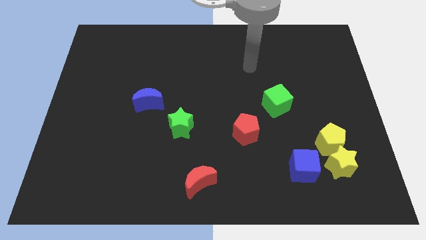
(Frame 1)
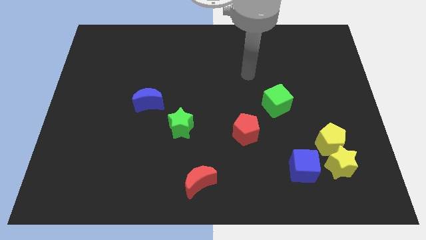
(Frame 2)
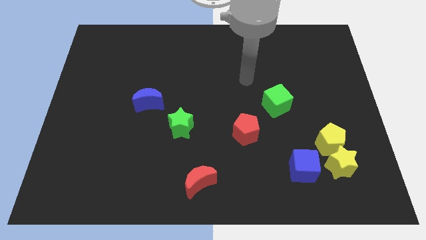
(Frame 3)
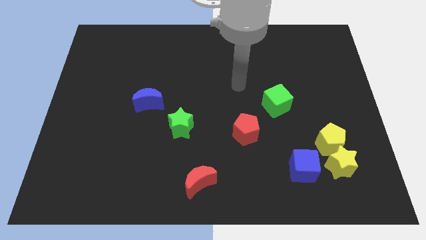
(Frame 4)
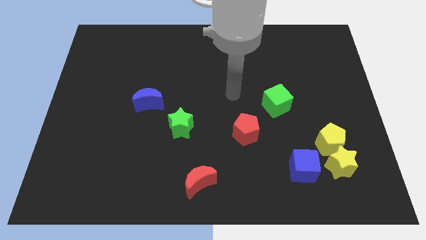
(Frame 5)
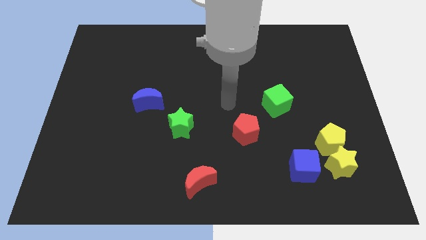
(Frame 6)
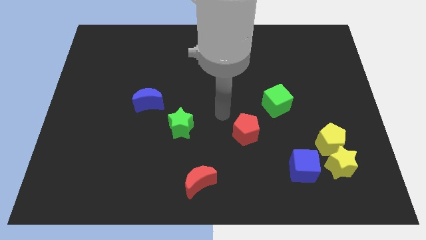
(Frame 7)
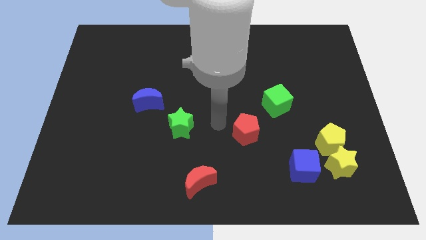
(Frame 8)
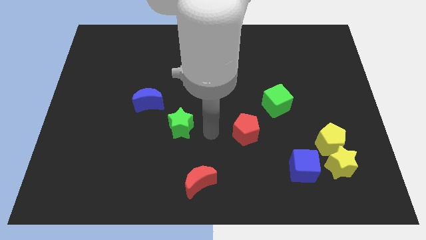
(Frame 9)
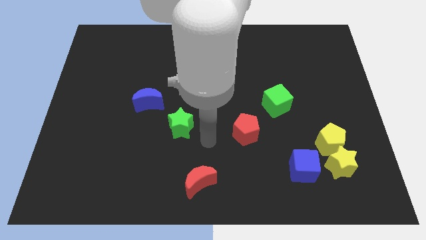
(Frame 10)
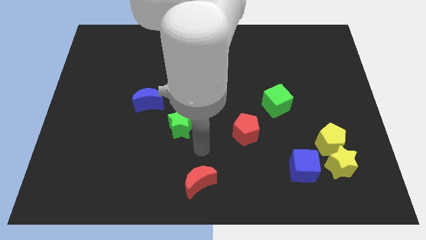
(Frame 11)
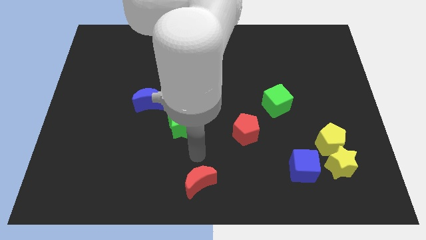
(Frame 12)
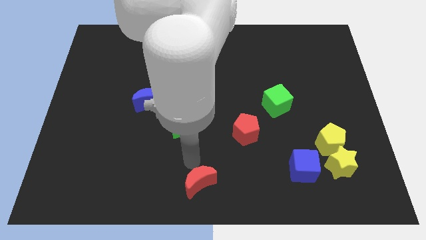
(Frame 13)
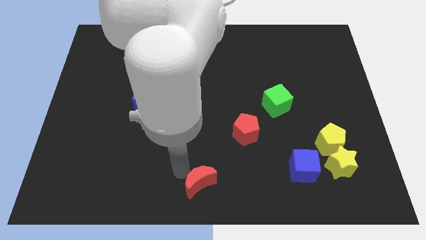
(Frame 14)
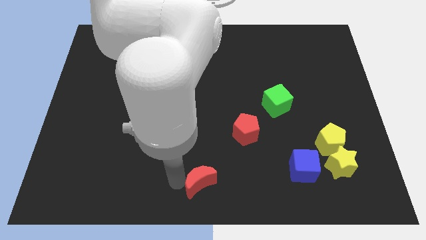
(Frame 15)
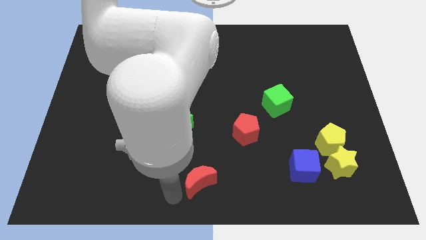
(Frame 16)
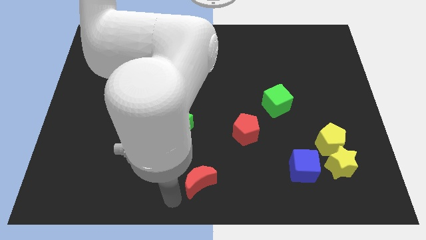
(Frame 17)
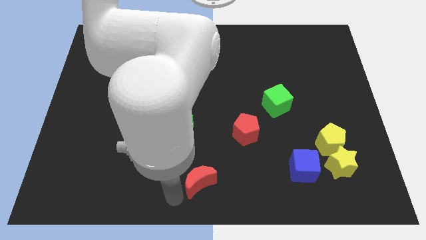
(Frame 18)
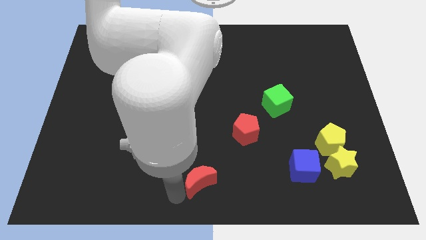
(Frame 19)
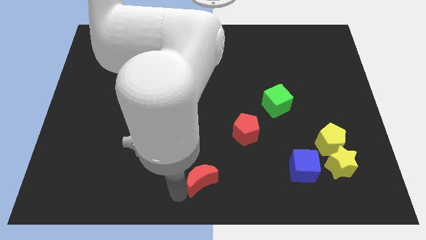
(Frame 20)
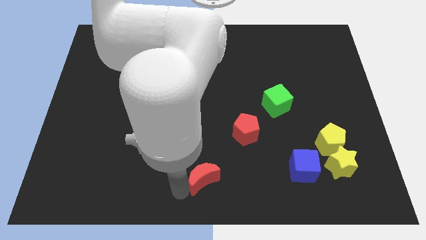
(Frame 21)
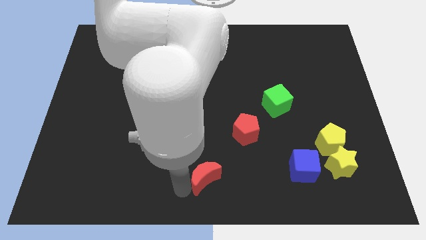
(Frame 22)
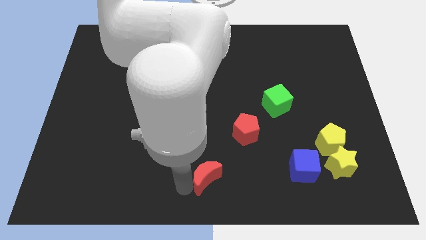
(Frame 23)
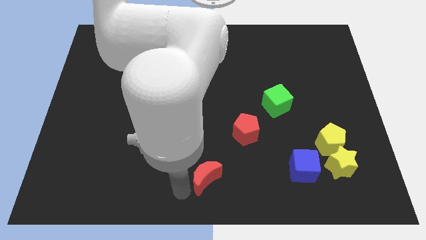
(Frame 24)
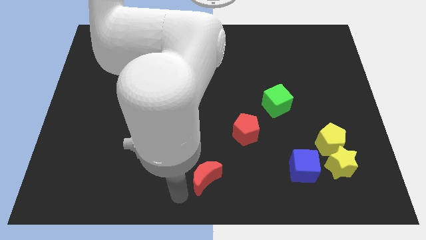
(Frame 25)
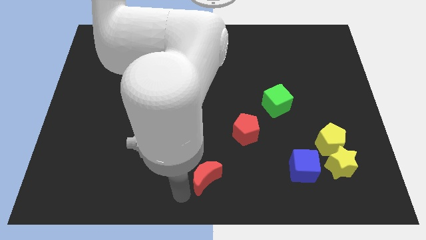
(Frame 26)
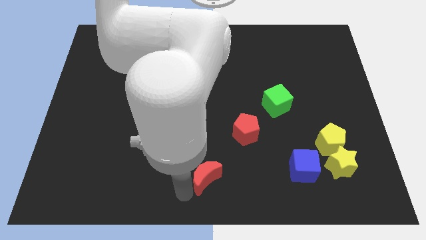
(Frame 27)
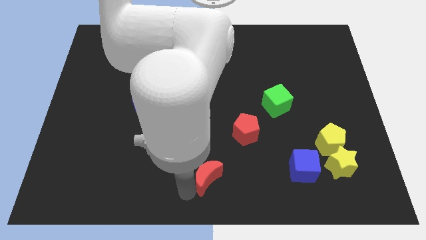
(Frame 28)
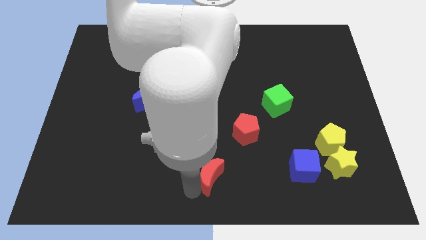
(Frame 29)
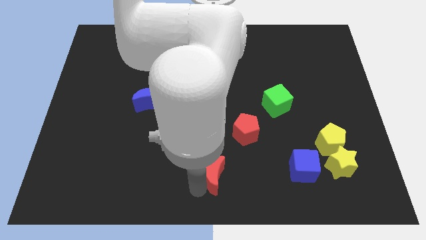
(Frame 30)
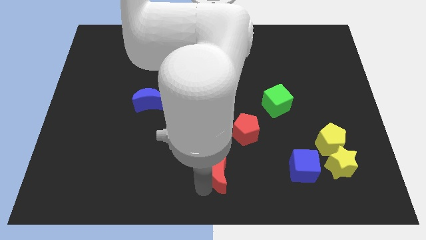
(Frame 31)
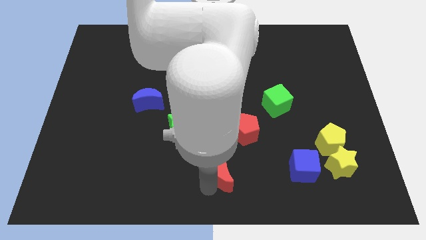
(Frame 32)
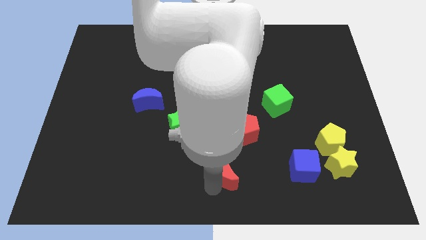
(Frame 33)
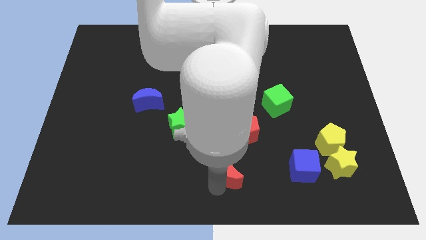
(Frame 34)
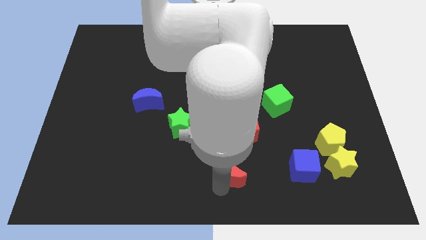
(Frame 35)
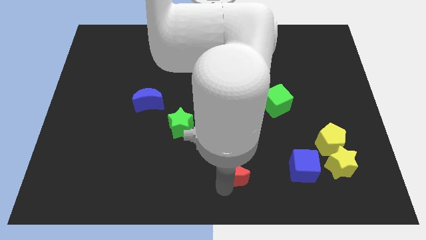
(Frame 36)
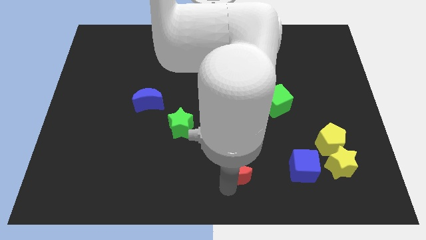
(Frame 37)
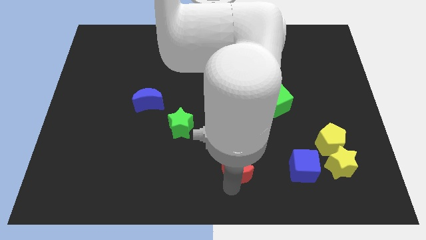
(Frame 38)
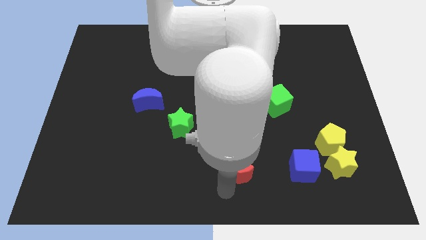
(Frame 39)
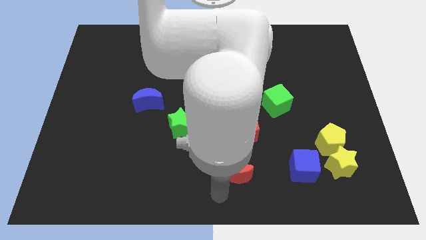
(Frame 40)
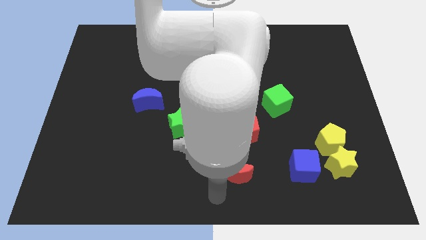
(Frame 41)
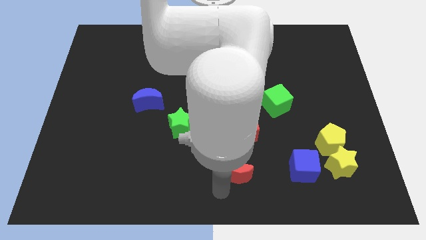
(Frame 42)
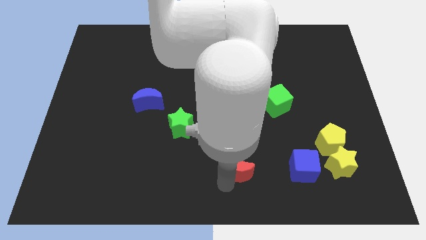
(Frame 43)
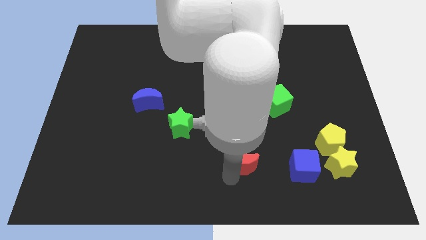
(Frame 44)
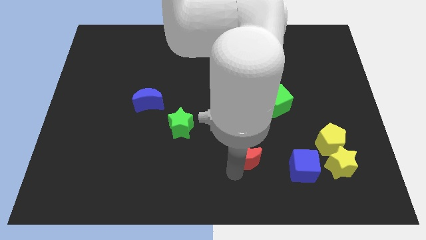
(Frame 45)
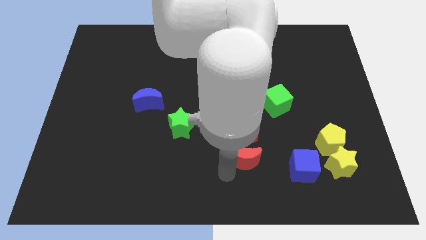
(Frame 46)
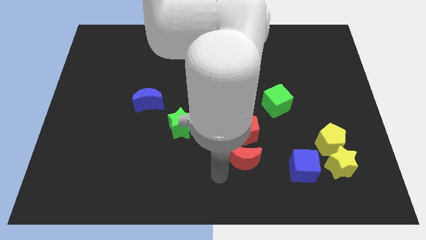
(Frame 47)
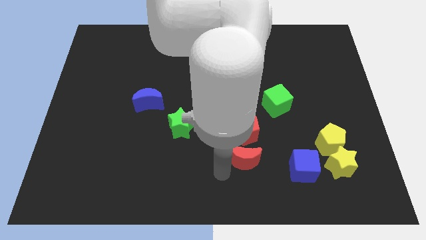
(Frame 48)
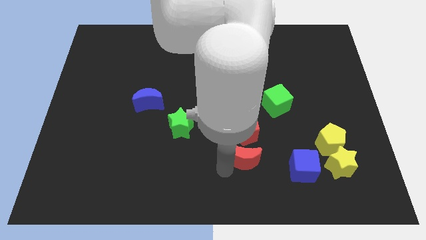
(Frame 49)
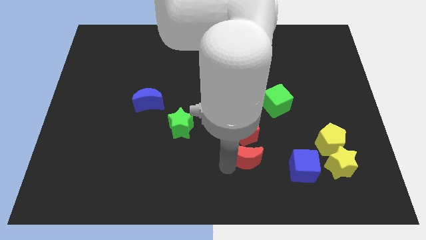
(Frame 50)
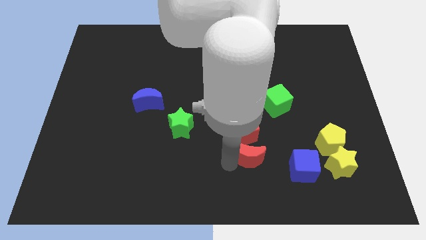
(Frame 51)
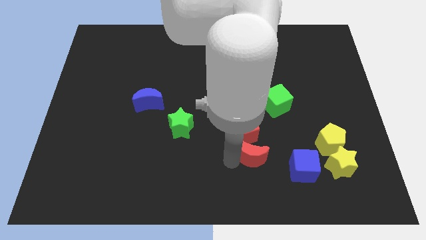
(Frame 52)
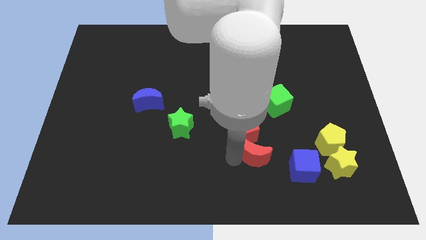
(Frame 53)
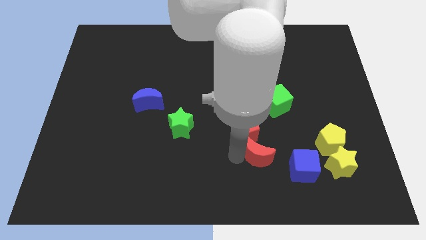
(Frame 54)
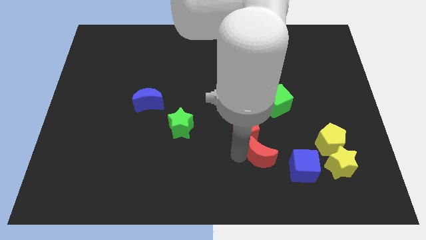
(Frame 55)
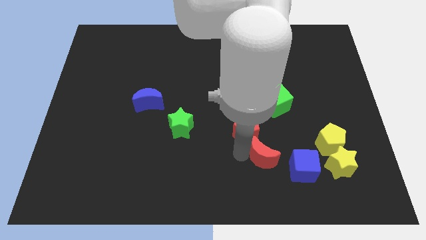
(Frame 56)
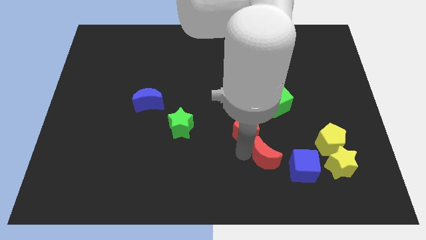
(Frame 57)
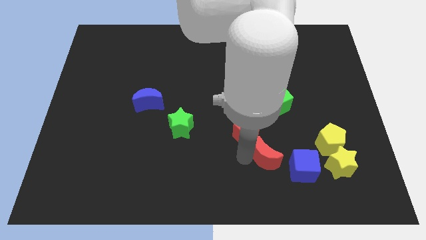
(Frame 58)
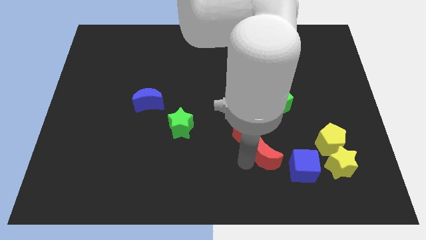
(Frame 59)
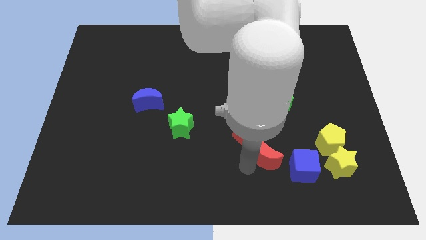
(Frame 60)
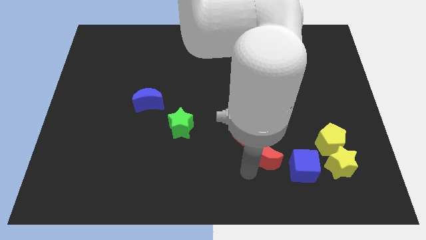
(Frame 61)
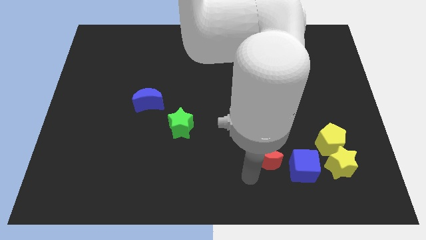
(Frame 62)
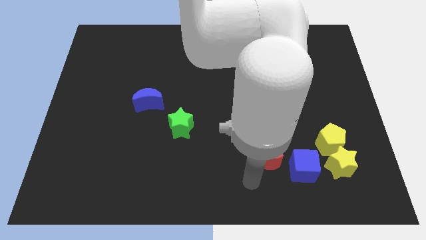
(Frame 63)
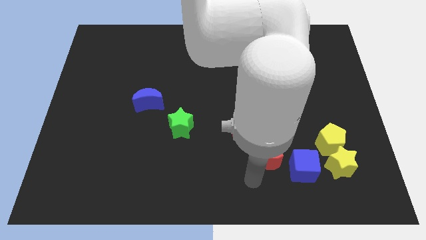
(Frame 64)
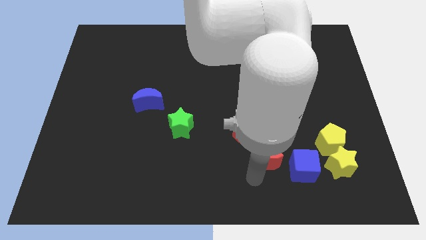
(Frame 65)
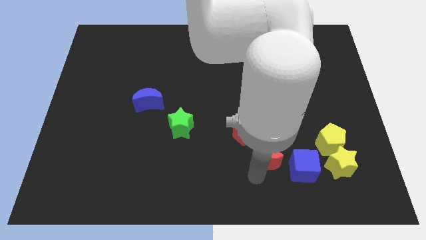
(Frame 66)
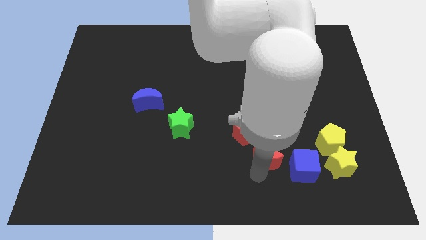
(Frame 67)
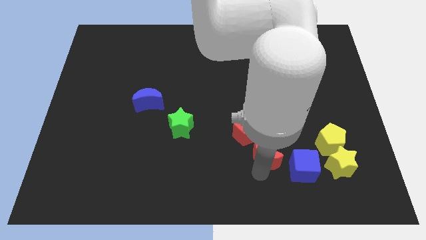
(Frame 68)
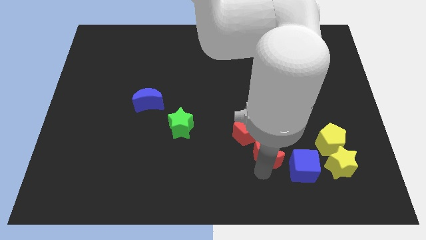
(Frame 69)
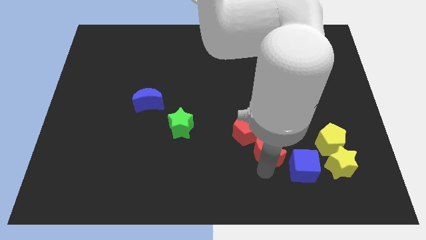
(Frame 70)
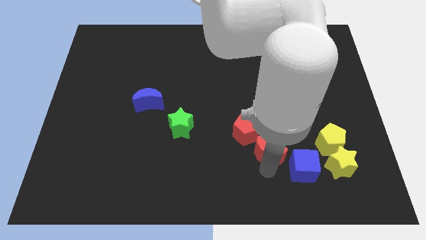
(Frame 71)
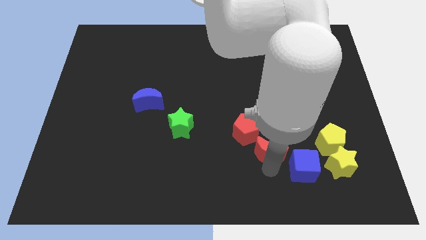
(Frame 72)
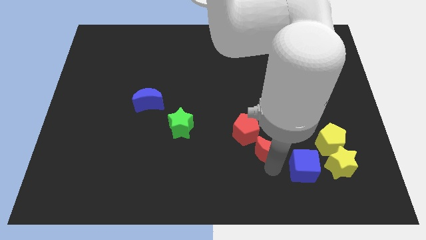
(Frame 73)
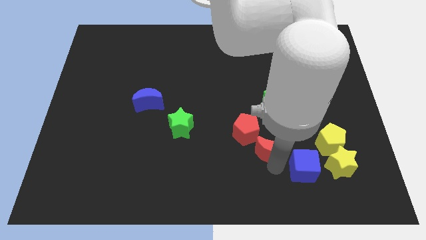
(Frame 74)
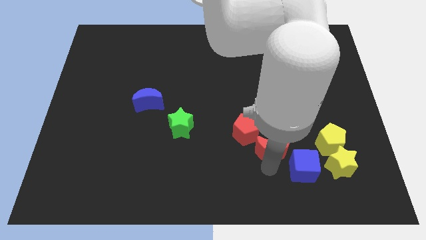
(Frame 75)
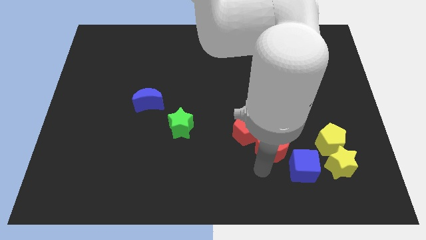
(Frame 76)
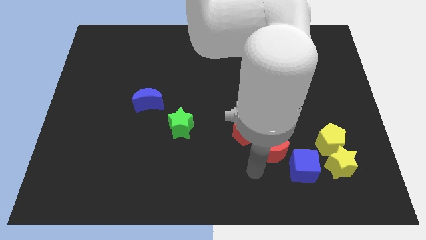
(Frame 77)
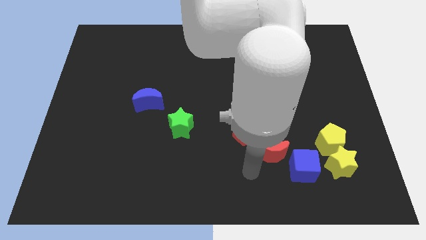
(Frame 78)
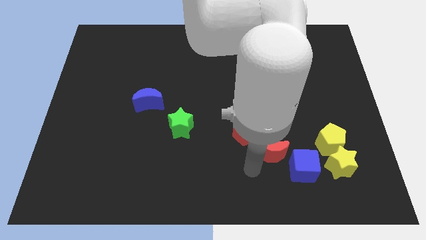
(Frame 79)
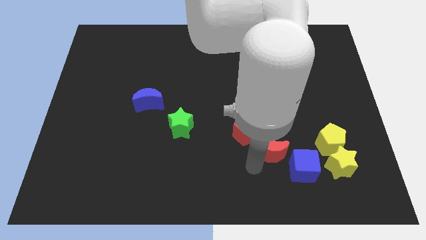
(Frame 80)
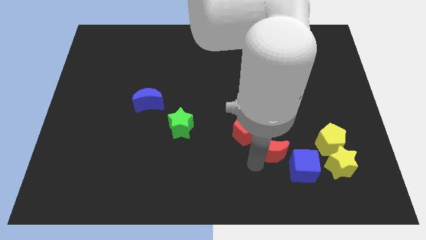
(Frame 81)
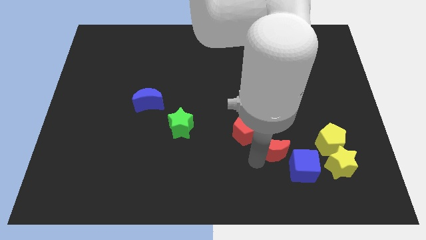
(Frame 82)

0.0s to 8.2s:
slide the red moon just right of the red pentagon
